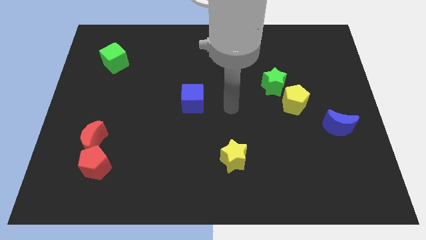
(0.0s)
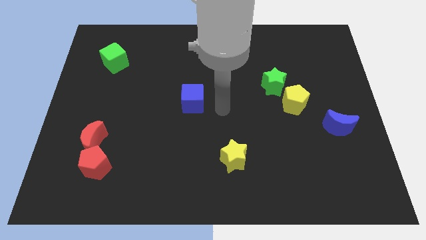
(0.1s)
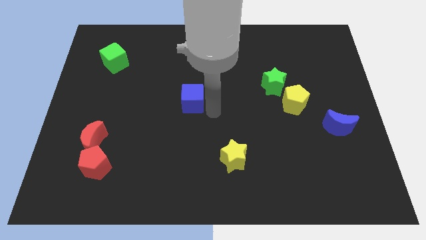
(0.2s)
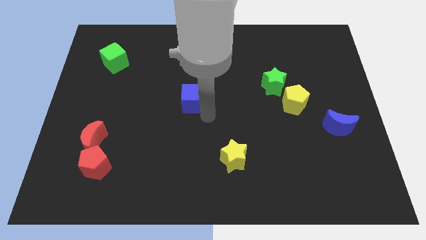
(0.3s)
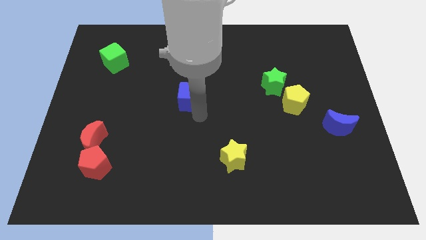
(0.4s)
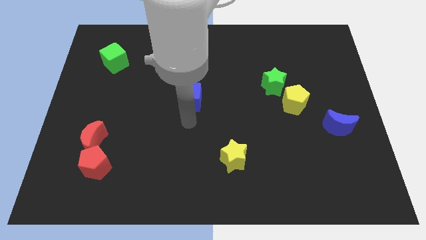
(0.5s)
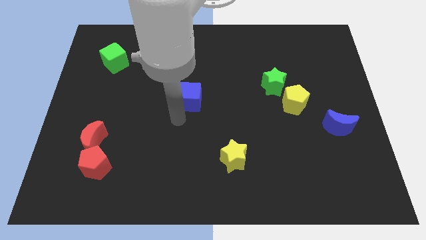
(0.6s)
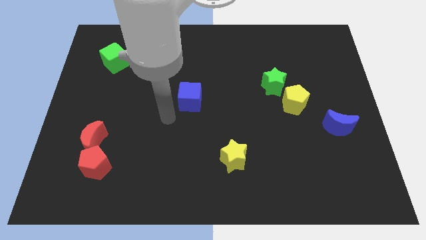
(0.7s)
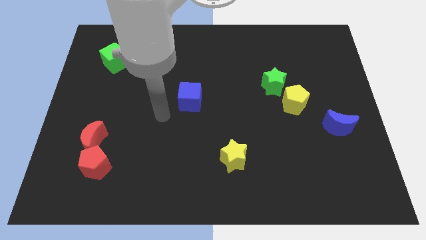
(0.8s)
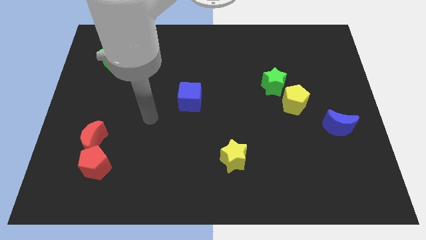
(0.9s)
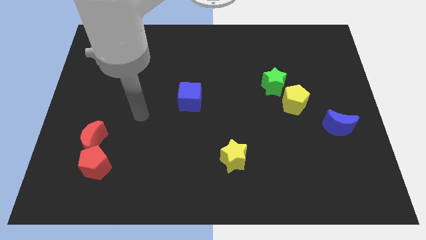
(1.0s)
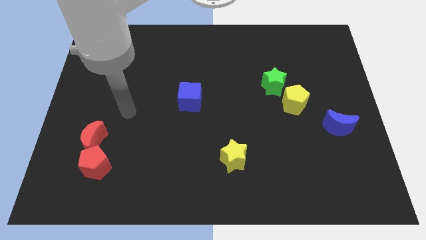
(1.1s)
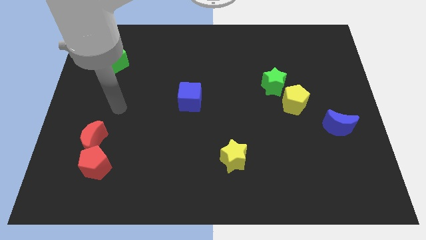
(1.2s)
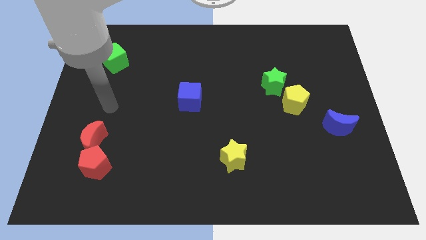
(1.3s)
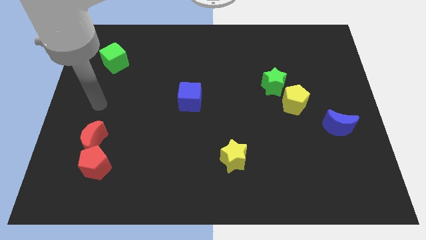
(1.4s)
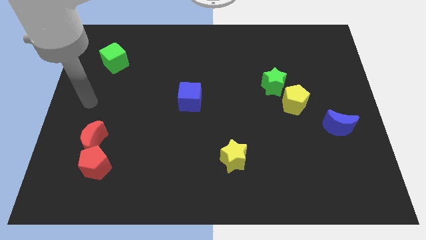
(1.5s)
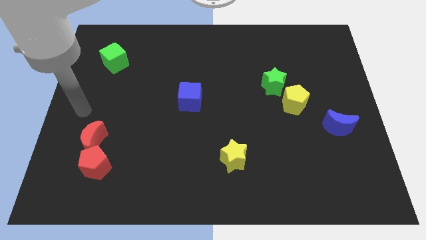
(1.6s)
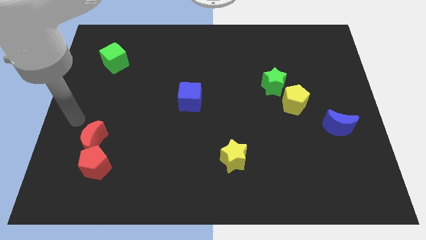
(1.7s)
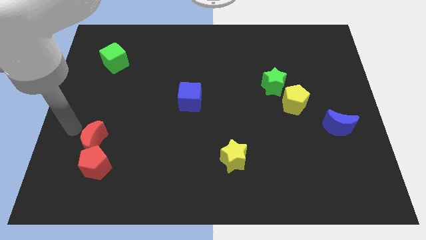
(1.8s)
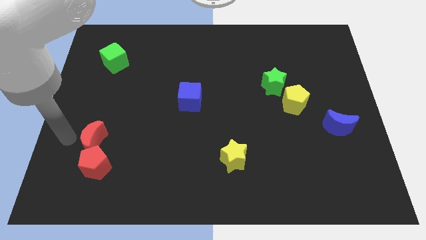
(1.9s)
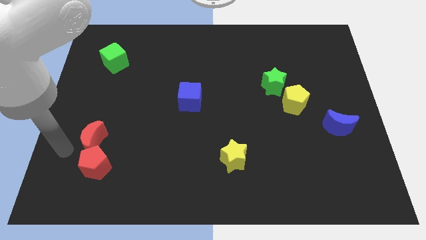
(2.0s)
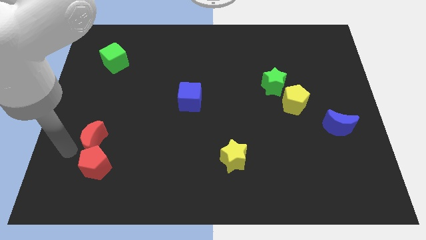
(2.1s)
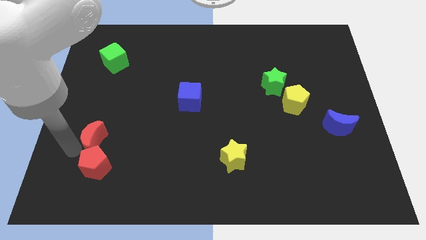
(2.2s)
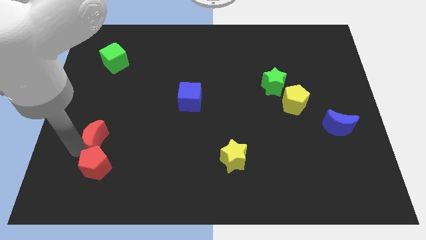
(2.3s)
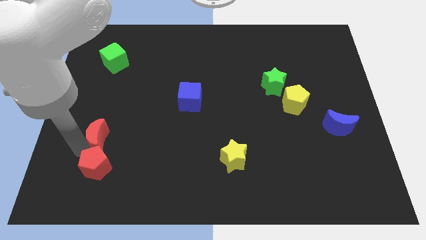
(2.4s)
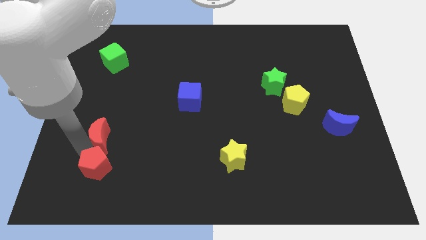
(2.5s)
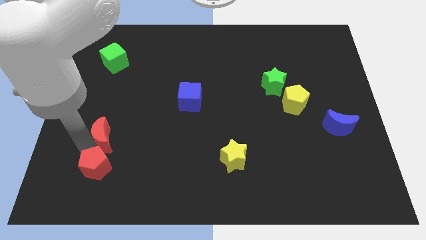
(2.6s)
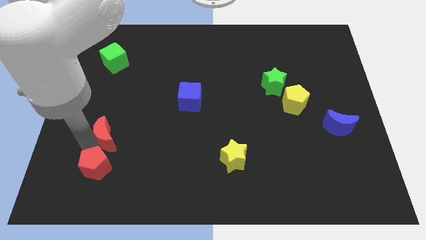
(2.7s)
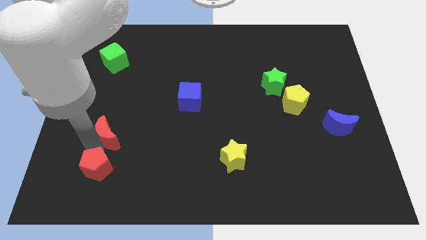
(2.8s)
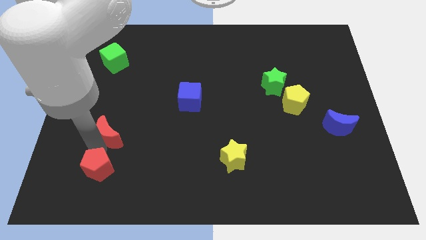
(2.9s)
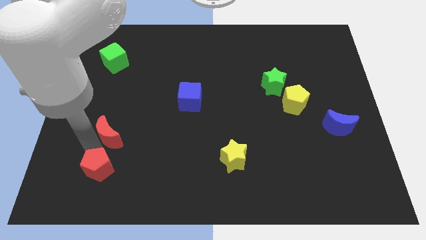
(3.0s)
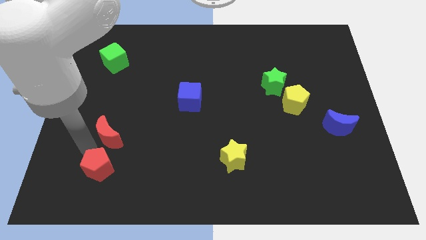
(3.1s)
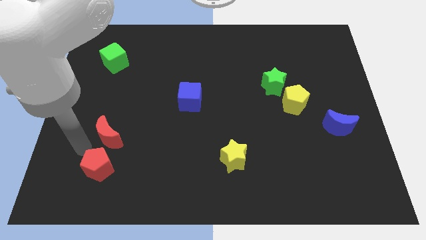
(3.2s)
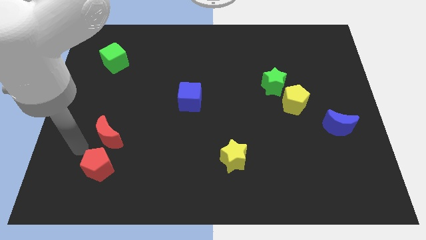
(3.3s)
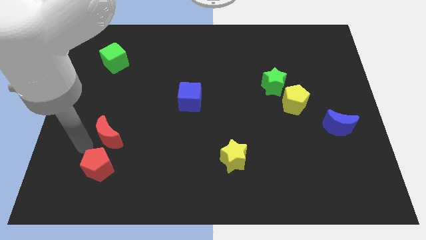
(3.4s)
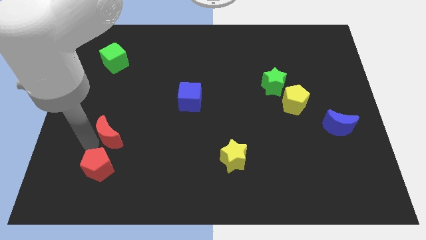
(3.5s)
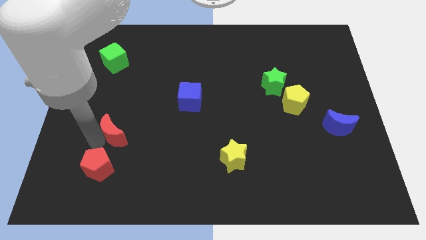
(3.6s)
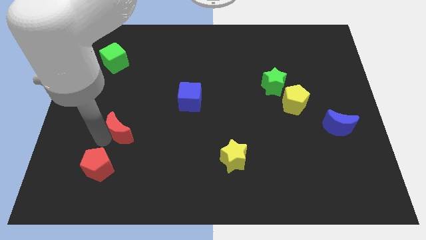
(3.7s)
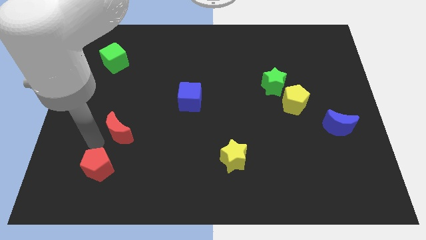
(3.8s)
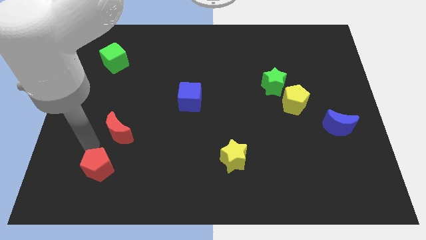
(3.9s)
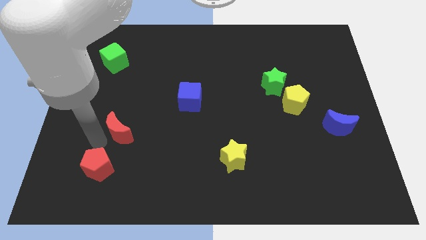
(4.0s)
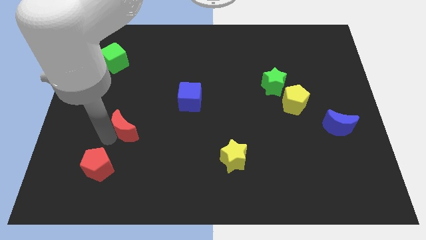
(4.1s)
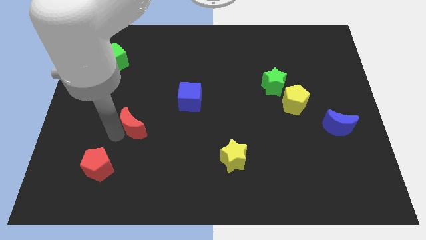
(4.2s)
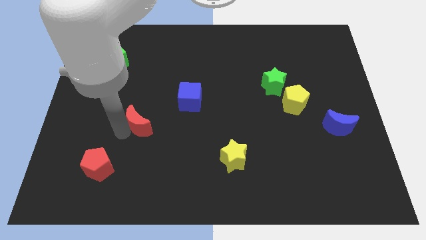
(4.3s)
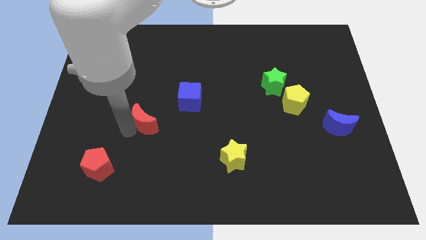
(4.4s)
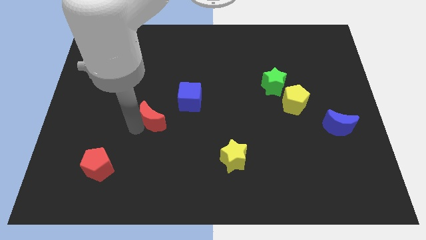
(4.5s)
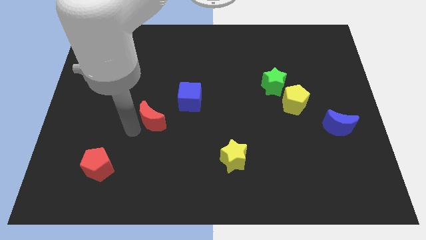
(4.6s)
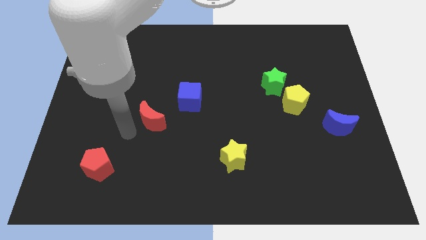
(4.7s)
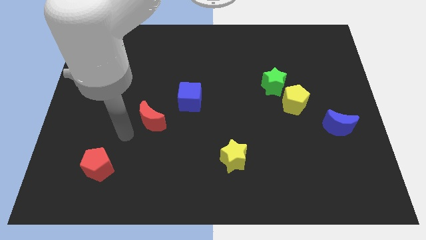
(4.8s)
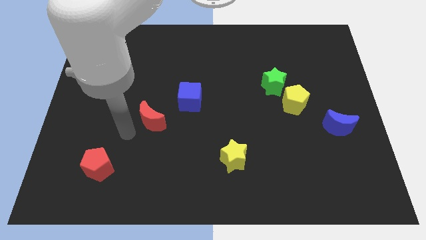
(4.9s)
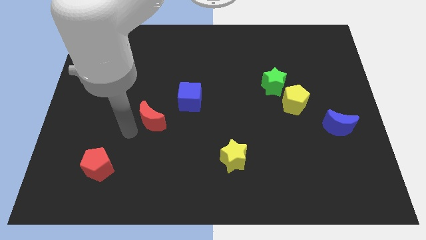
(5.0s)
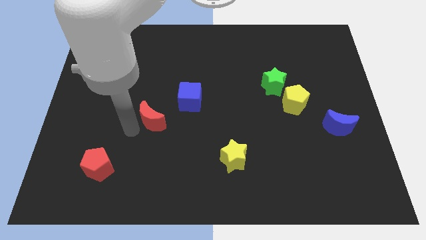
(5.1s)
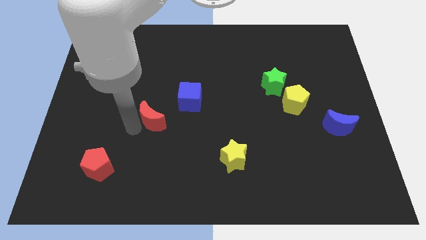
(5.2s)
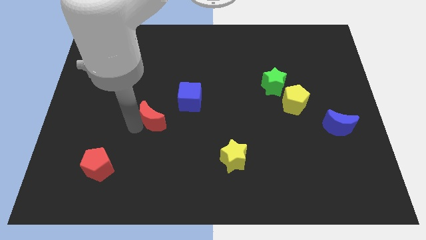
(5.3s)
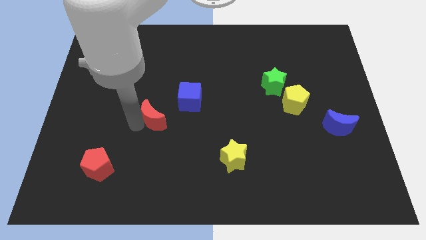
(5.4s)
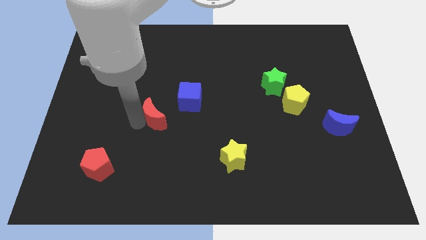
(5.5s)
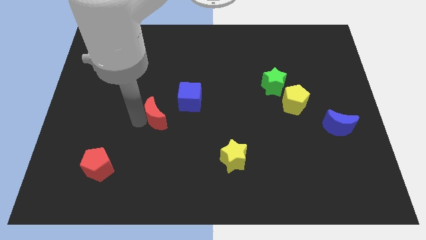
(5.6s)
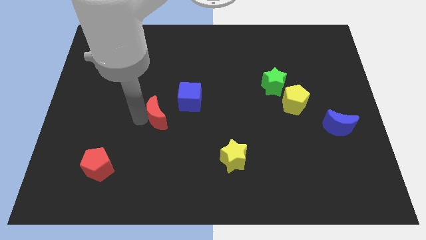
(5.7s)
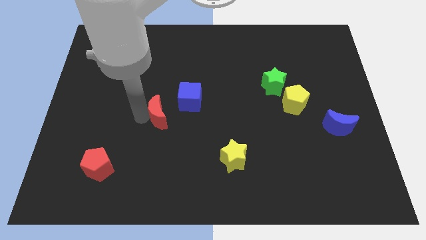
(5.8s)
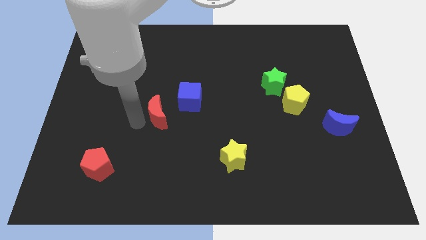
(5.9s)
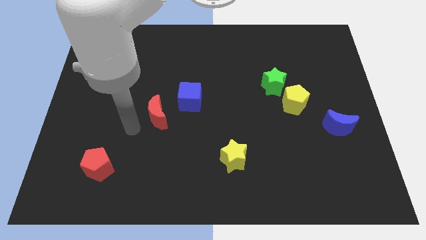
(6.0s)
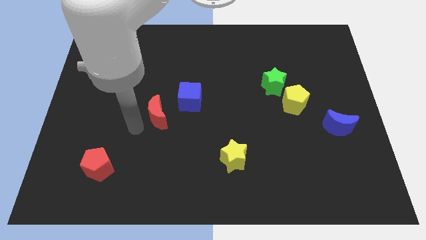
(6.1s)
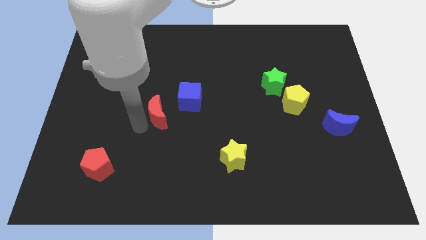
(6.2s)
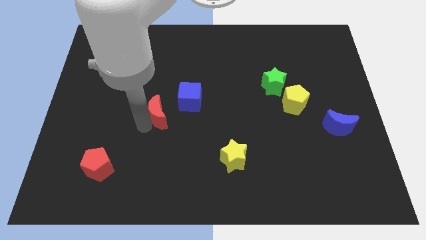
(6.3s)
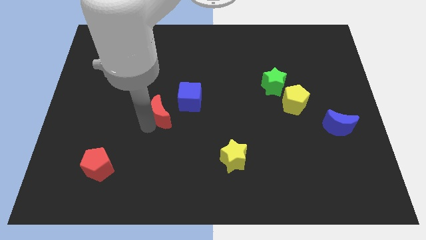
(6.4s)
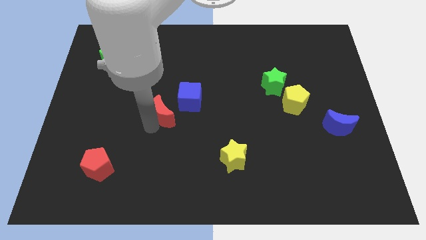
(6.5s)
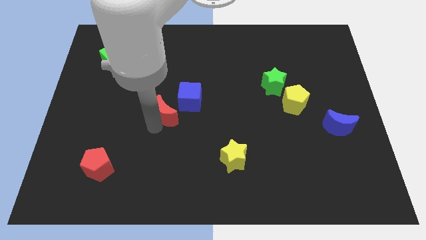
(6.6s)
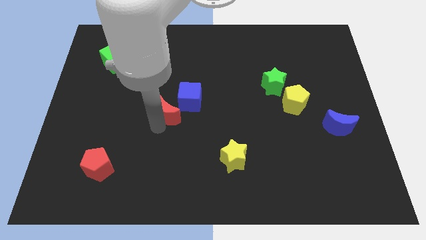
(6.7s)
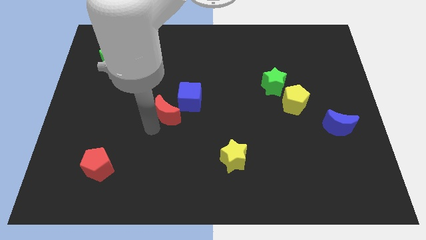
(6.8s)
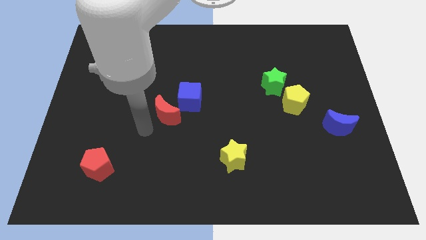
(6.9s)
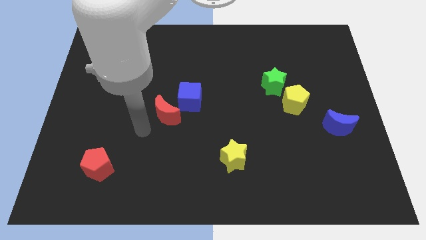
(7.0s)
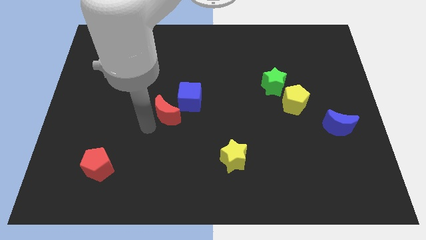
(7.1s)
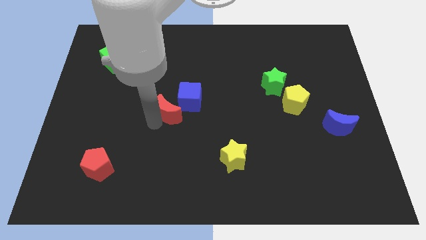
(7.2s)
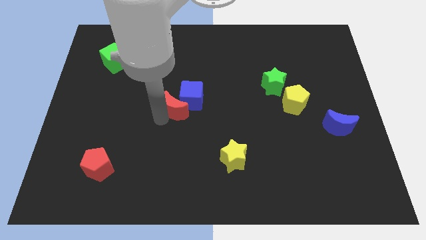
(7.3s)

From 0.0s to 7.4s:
slide the red moon to the blue cube
